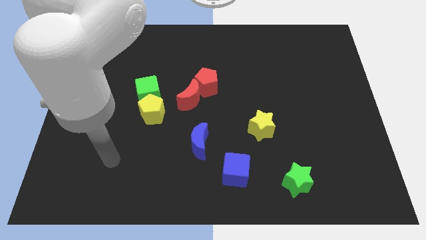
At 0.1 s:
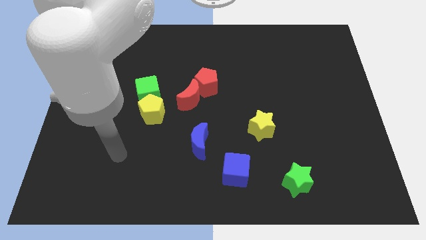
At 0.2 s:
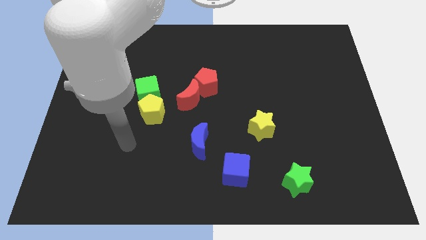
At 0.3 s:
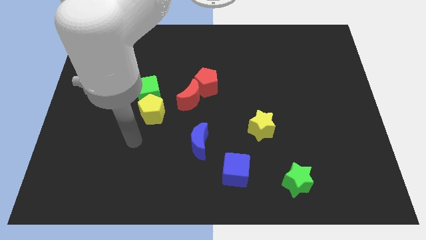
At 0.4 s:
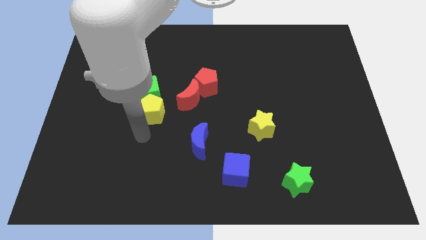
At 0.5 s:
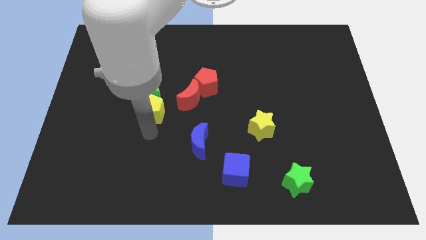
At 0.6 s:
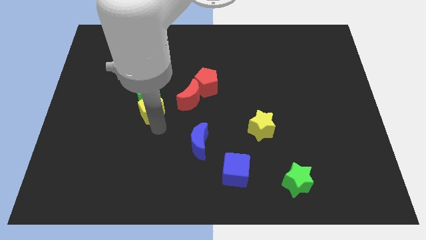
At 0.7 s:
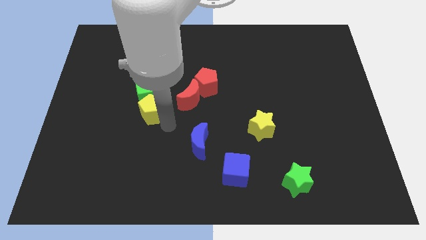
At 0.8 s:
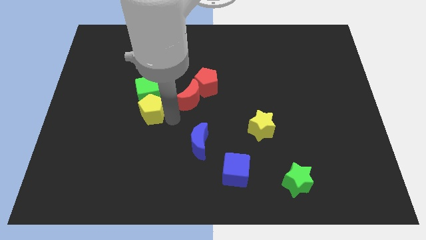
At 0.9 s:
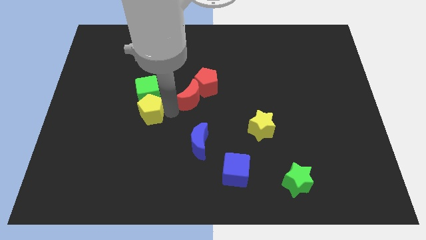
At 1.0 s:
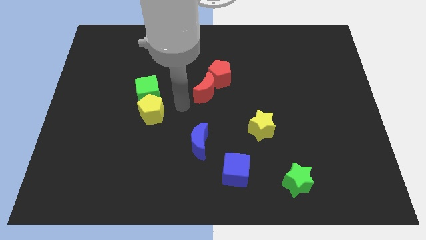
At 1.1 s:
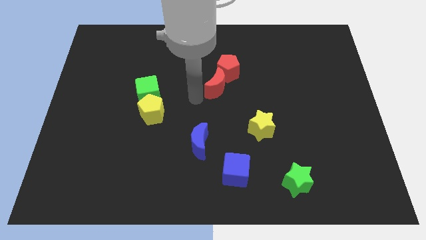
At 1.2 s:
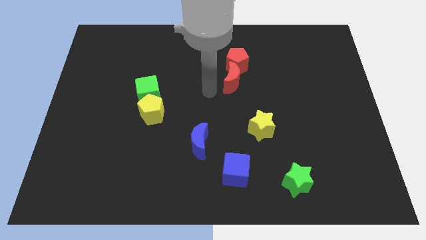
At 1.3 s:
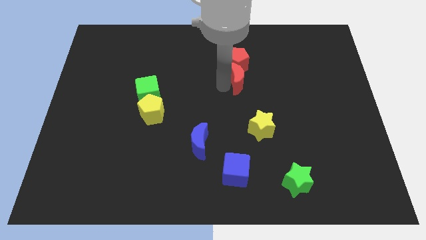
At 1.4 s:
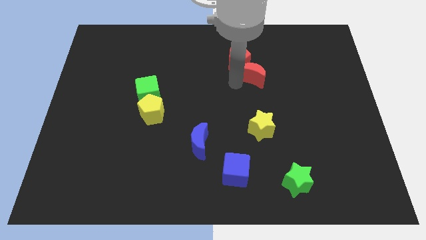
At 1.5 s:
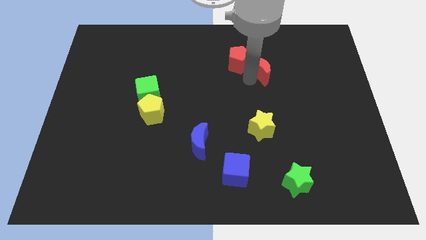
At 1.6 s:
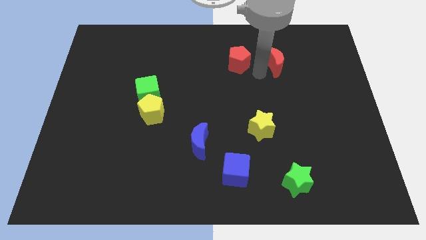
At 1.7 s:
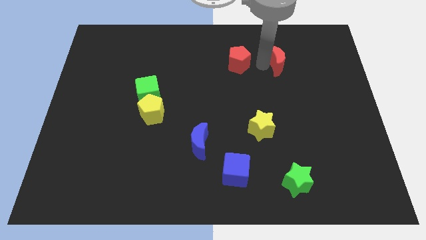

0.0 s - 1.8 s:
move the red pentagon away from the red moon

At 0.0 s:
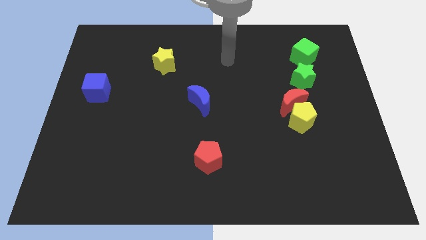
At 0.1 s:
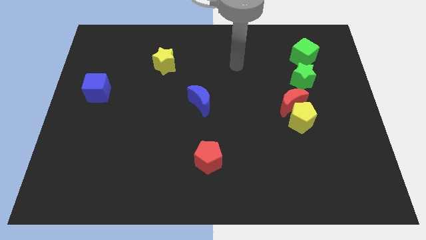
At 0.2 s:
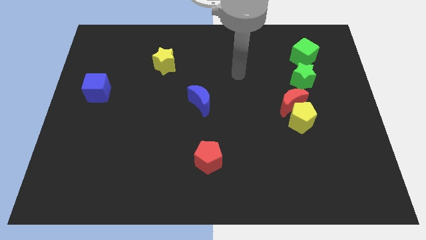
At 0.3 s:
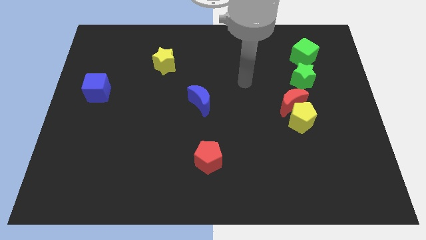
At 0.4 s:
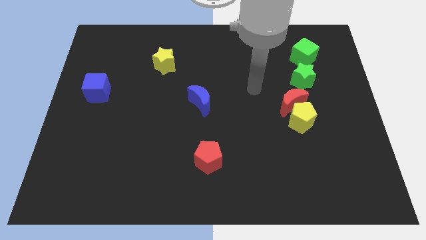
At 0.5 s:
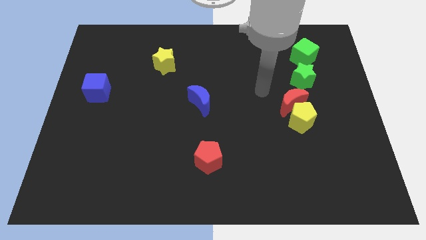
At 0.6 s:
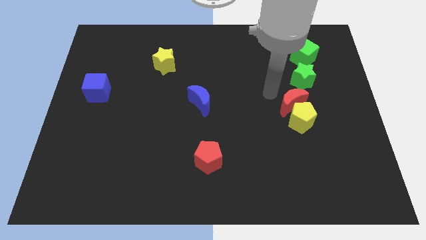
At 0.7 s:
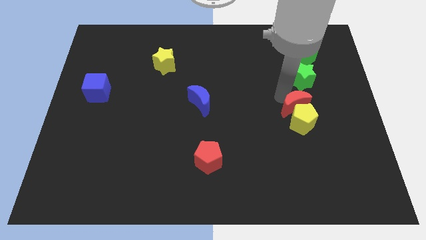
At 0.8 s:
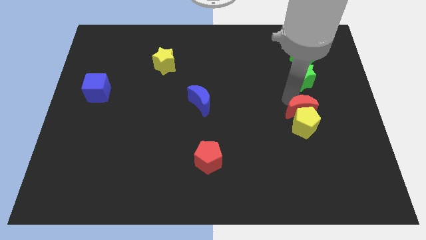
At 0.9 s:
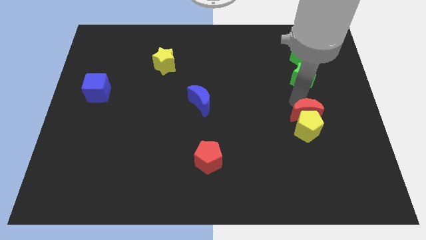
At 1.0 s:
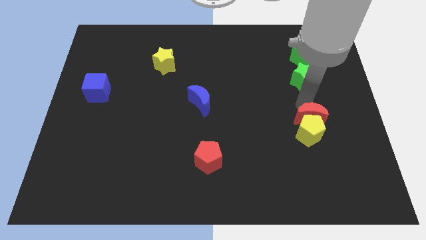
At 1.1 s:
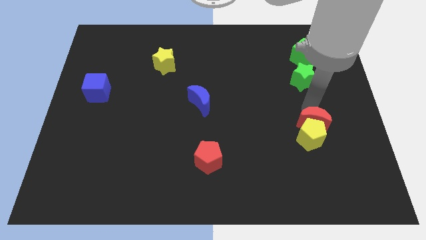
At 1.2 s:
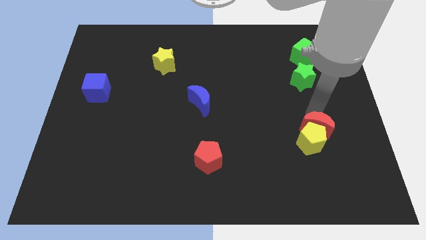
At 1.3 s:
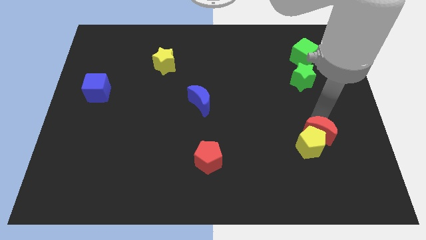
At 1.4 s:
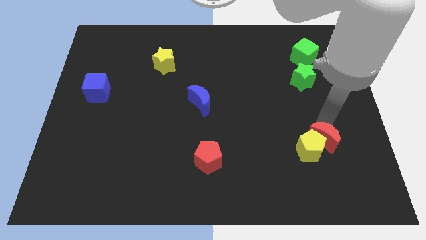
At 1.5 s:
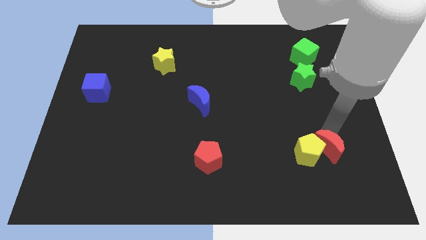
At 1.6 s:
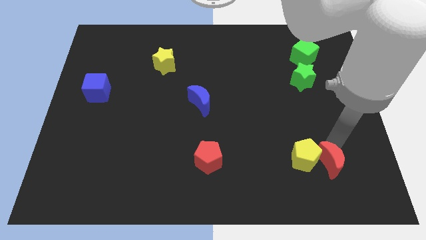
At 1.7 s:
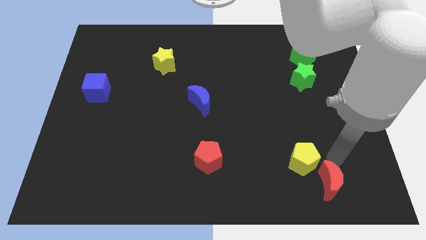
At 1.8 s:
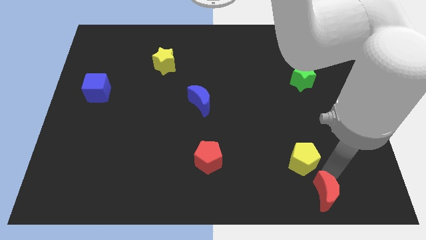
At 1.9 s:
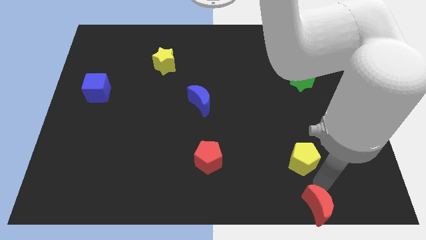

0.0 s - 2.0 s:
separate the yellow pentagon from the red moon

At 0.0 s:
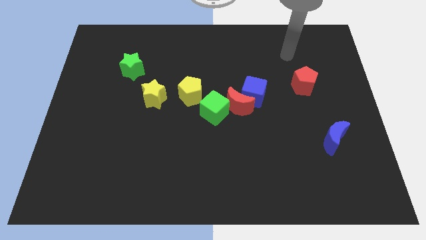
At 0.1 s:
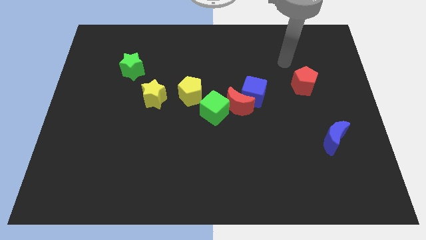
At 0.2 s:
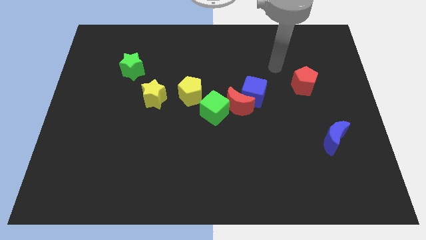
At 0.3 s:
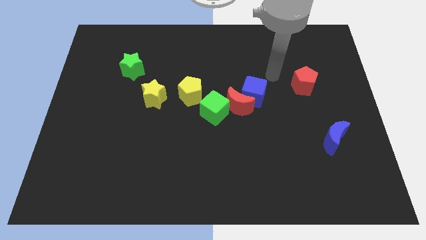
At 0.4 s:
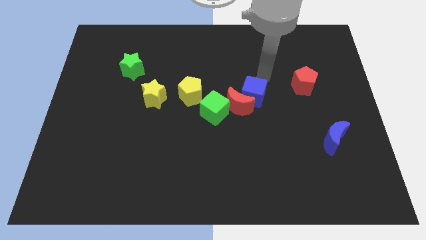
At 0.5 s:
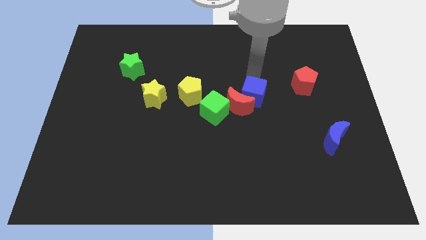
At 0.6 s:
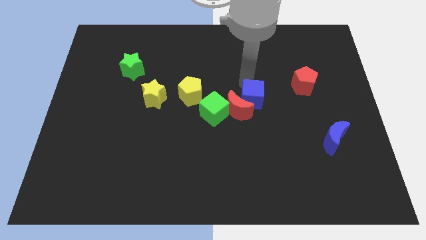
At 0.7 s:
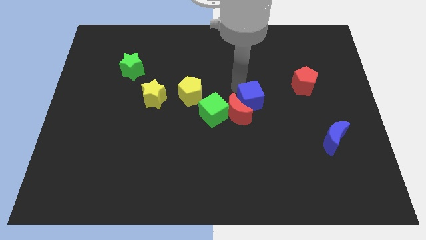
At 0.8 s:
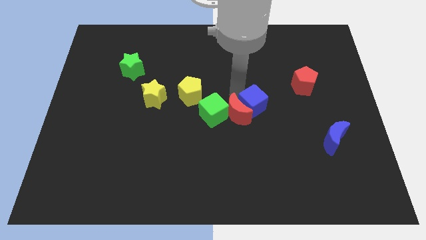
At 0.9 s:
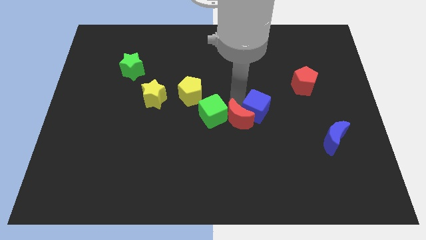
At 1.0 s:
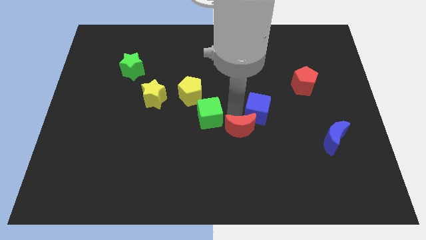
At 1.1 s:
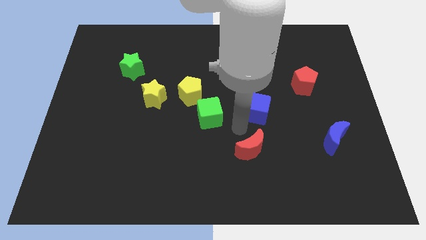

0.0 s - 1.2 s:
move the blue cube away from the red moon

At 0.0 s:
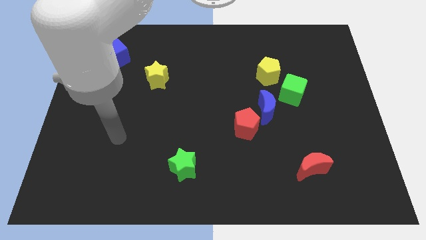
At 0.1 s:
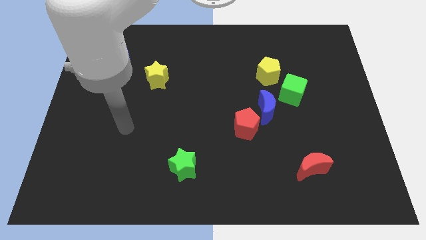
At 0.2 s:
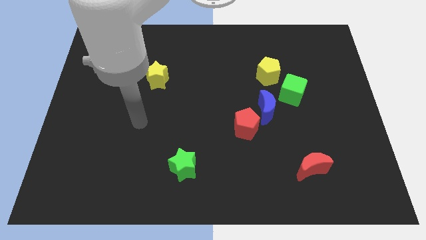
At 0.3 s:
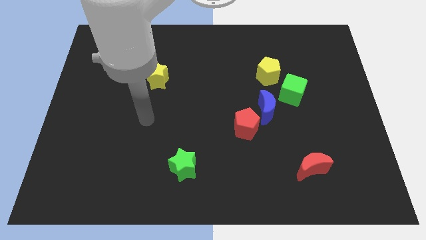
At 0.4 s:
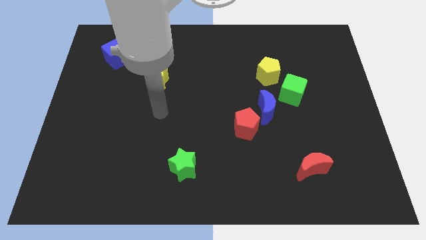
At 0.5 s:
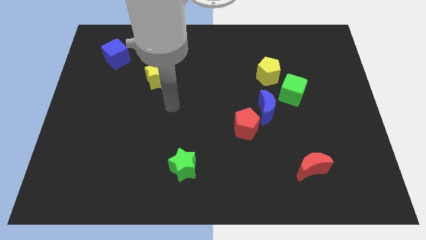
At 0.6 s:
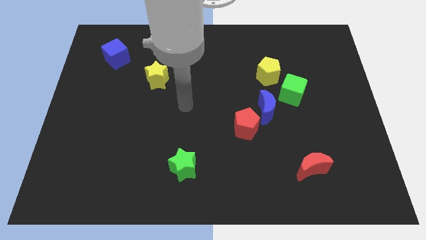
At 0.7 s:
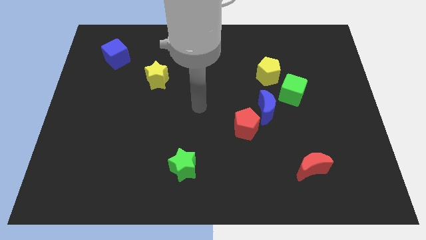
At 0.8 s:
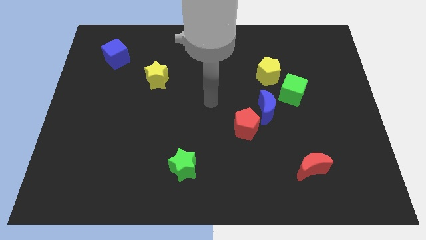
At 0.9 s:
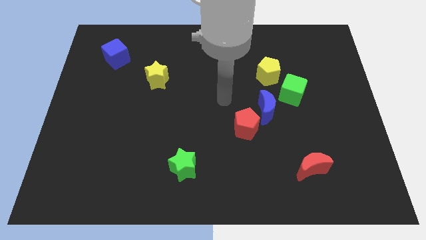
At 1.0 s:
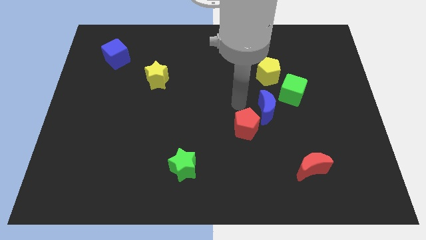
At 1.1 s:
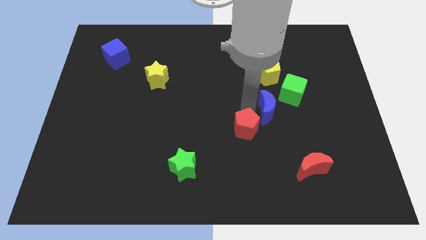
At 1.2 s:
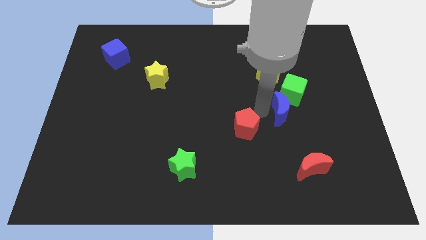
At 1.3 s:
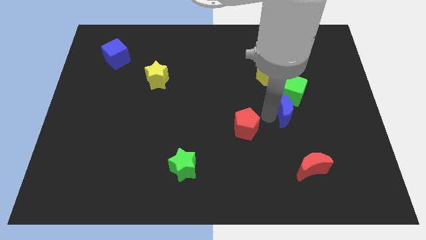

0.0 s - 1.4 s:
separate the red pentagon from the blue moon

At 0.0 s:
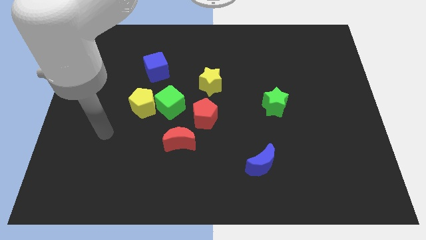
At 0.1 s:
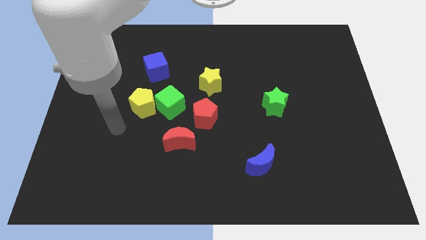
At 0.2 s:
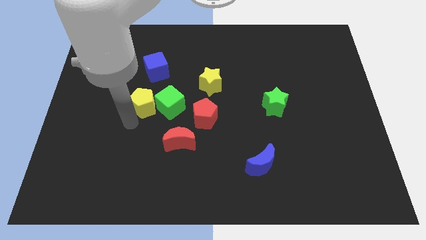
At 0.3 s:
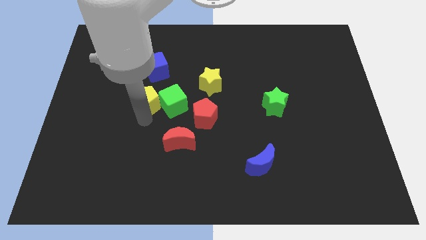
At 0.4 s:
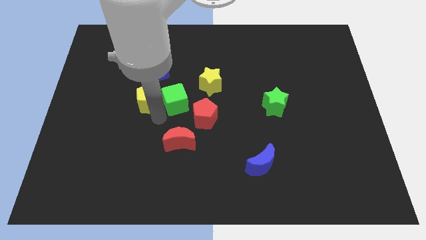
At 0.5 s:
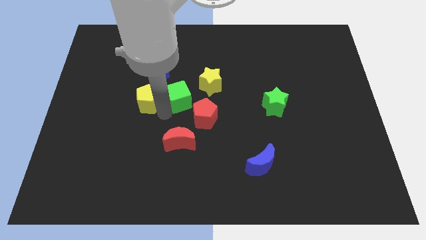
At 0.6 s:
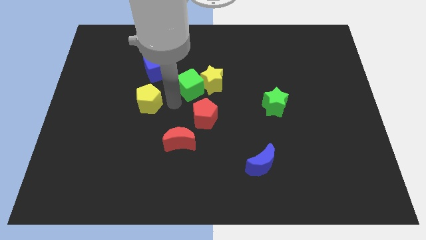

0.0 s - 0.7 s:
separate the yellow pentagon from the green cube

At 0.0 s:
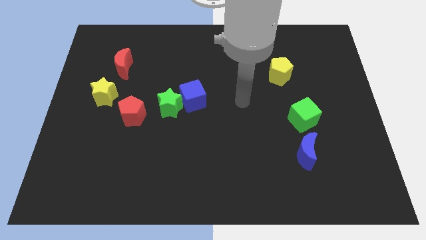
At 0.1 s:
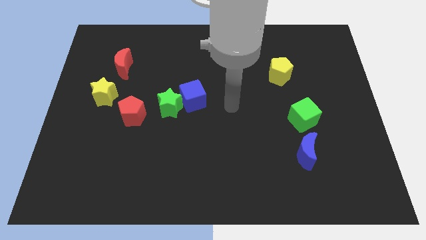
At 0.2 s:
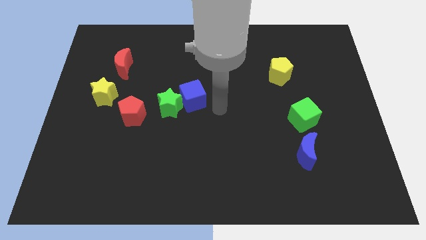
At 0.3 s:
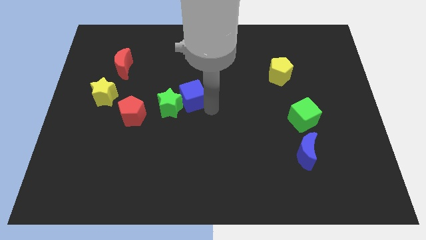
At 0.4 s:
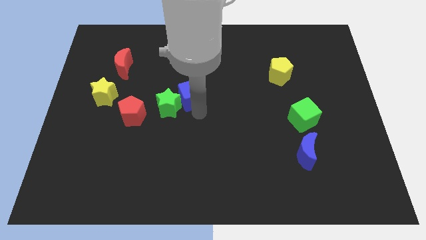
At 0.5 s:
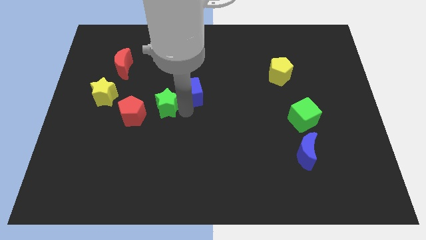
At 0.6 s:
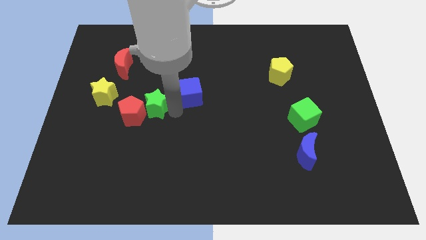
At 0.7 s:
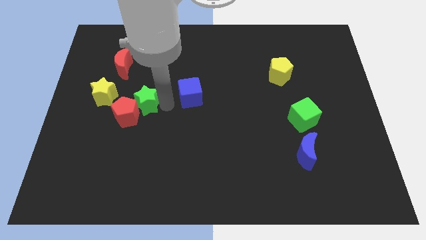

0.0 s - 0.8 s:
move the blue cube away from the green star

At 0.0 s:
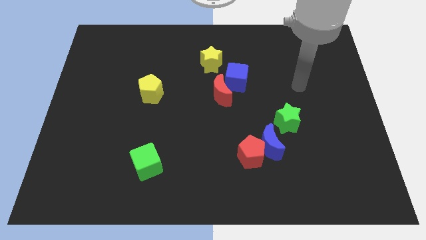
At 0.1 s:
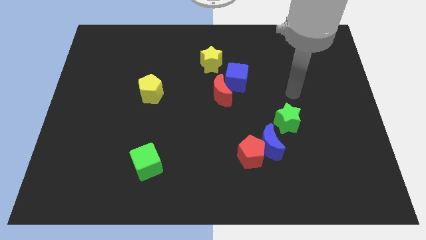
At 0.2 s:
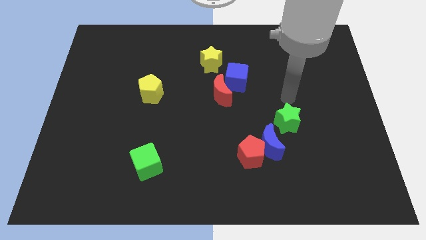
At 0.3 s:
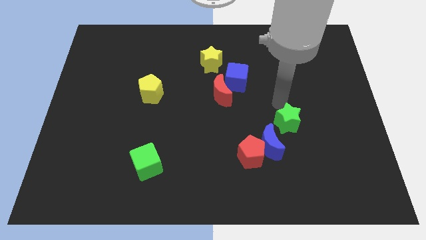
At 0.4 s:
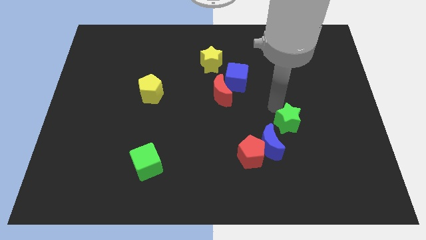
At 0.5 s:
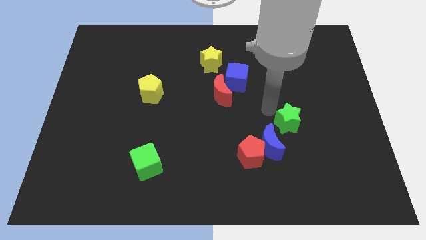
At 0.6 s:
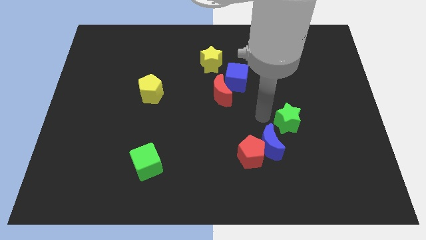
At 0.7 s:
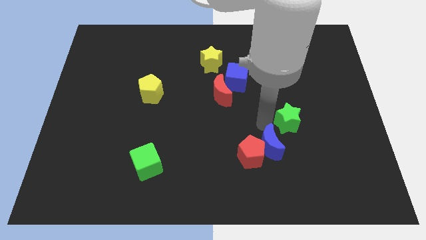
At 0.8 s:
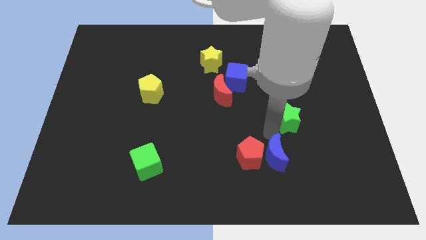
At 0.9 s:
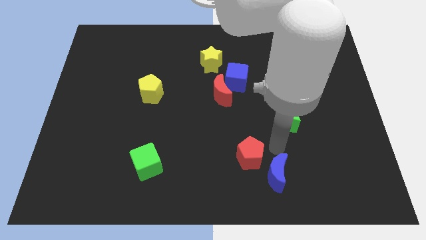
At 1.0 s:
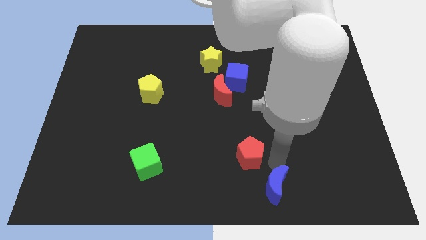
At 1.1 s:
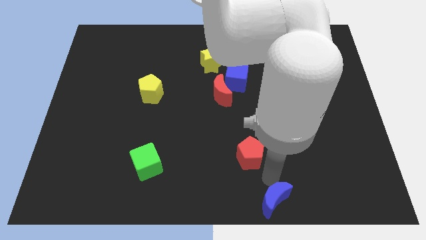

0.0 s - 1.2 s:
pull the red pentagon apart from the blue moon
